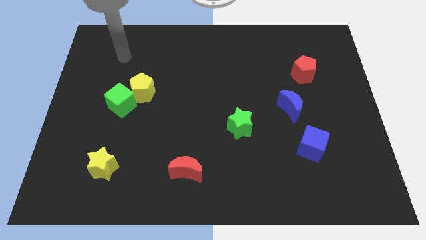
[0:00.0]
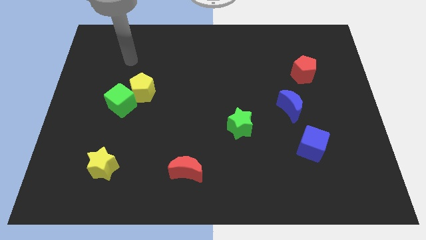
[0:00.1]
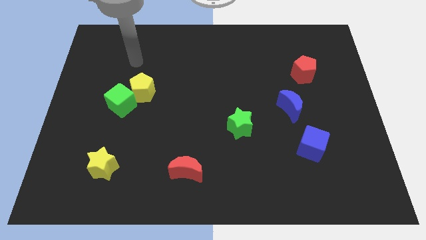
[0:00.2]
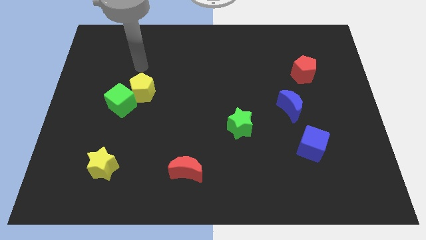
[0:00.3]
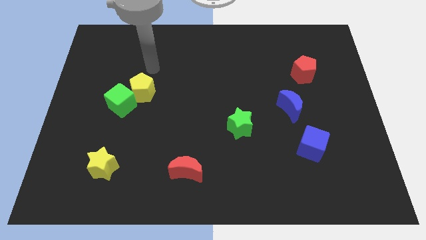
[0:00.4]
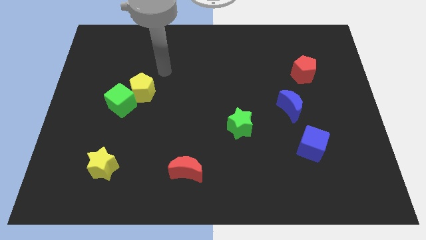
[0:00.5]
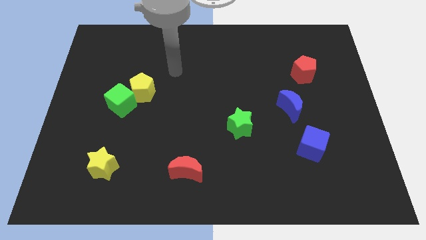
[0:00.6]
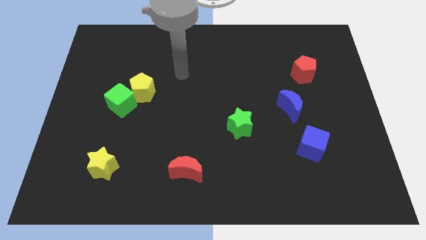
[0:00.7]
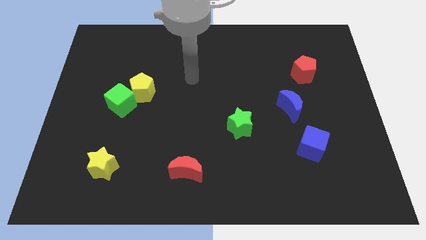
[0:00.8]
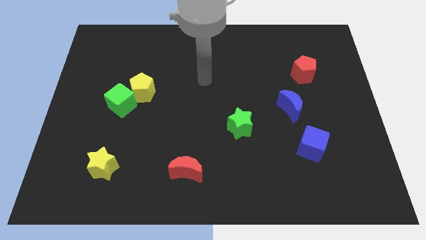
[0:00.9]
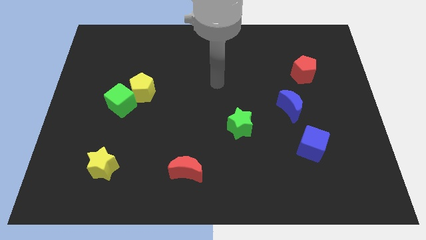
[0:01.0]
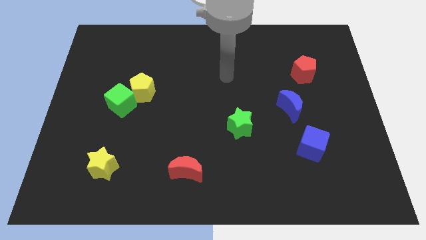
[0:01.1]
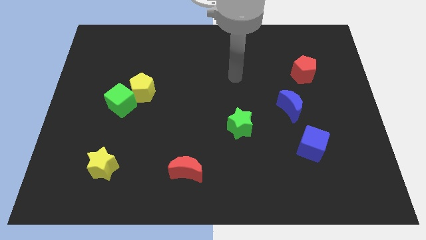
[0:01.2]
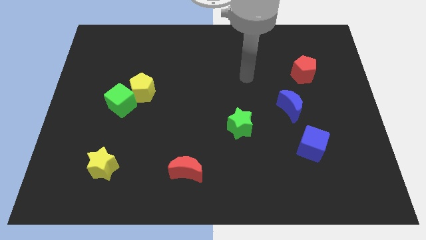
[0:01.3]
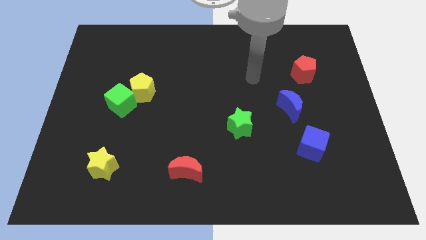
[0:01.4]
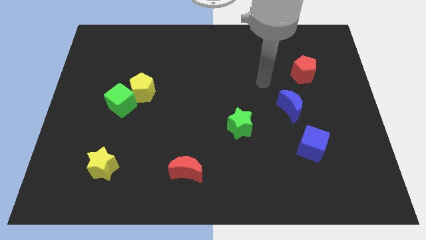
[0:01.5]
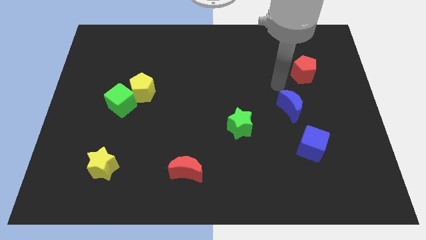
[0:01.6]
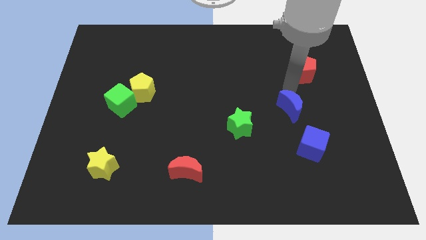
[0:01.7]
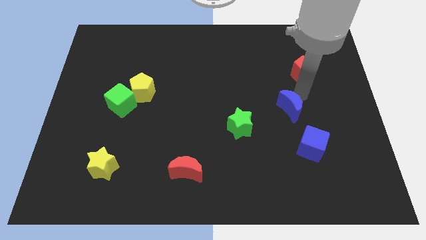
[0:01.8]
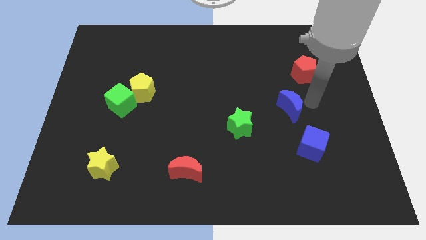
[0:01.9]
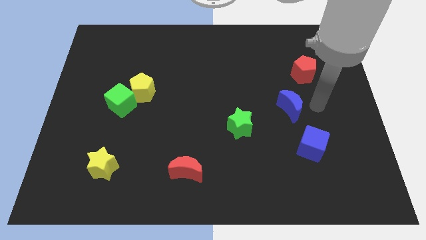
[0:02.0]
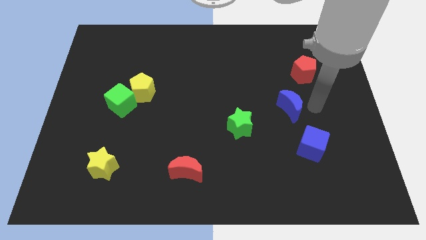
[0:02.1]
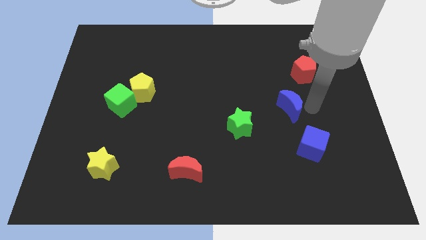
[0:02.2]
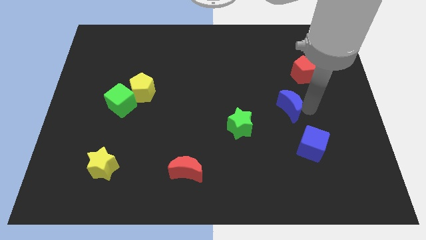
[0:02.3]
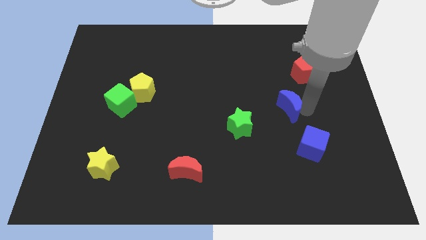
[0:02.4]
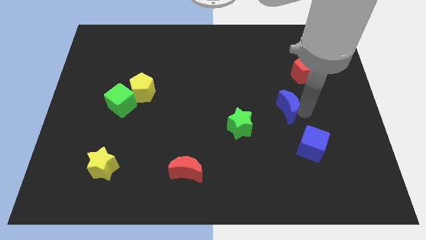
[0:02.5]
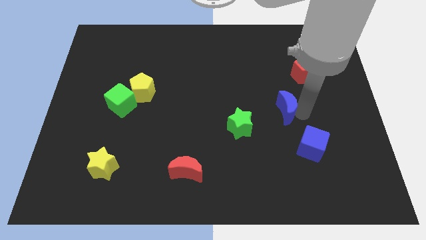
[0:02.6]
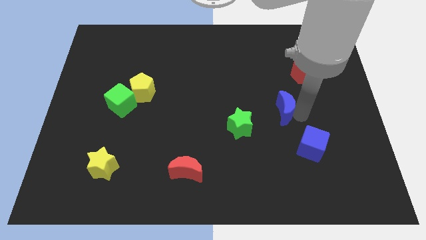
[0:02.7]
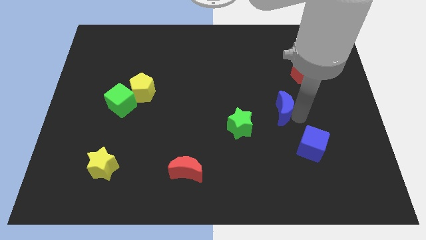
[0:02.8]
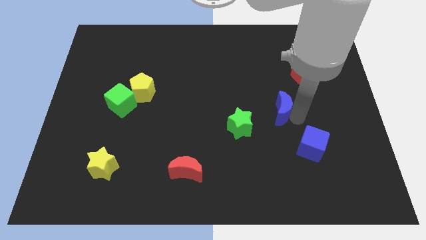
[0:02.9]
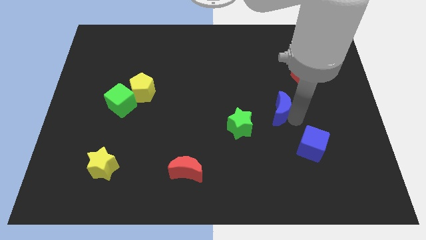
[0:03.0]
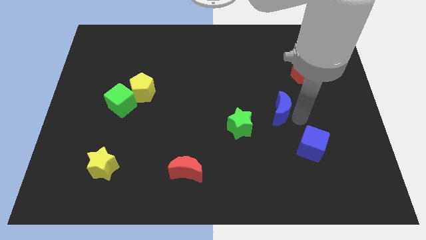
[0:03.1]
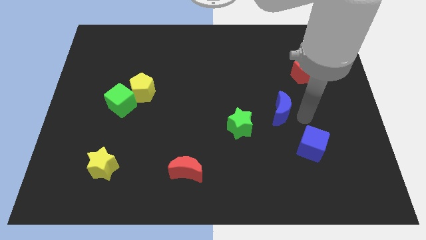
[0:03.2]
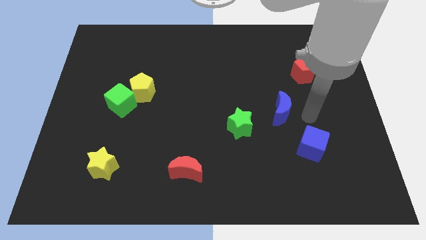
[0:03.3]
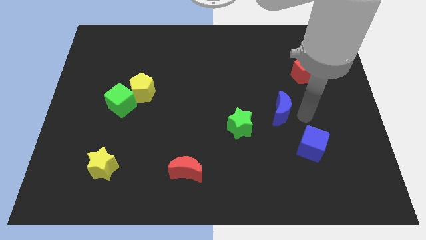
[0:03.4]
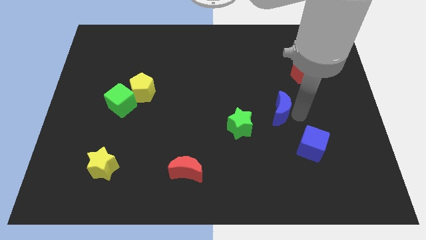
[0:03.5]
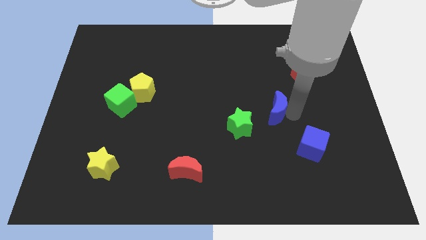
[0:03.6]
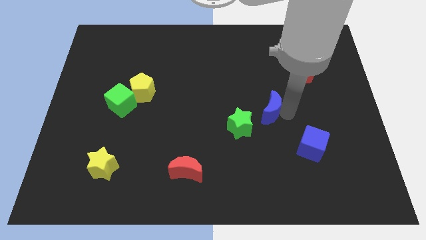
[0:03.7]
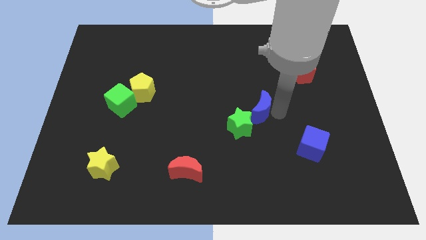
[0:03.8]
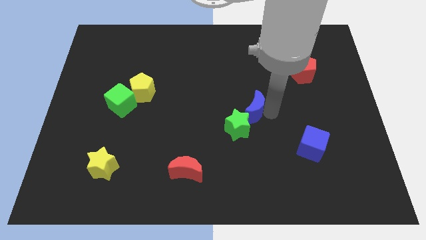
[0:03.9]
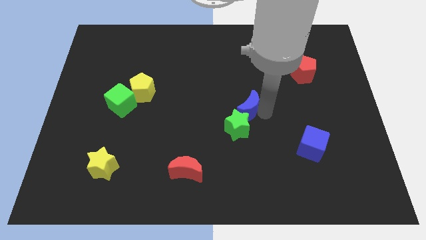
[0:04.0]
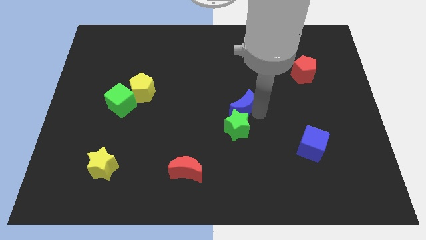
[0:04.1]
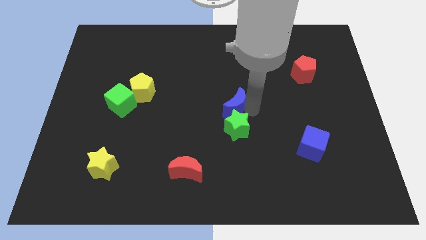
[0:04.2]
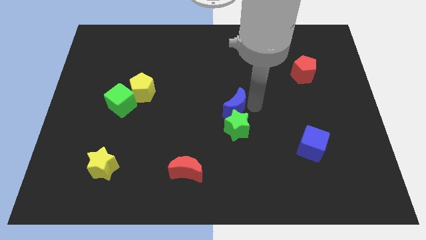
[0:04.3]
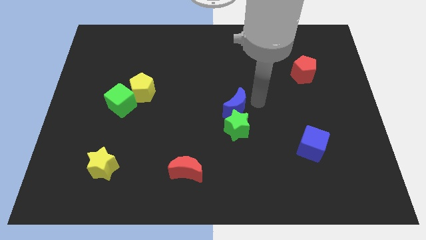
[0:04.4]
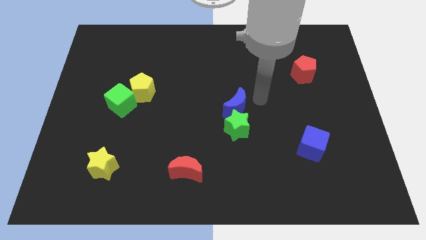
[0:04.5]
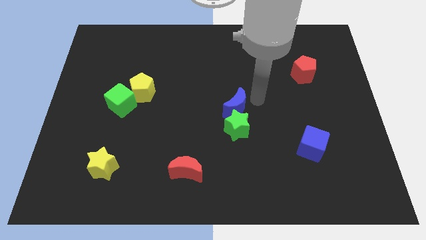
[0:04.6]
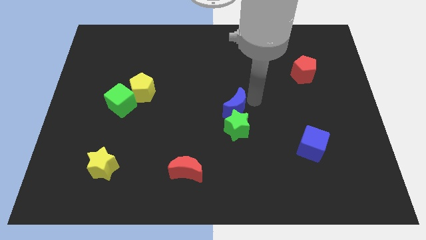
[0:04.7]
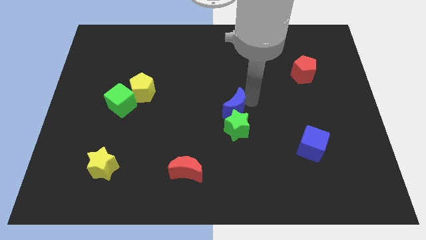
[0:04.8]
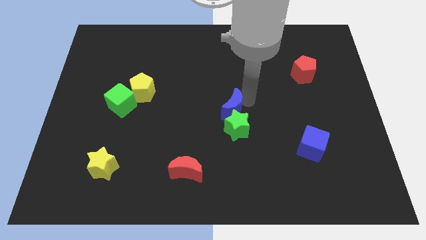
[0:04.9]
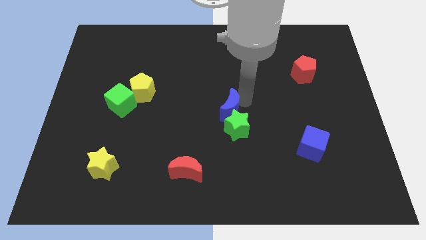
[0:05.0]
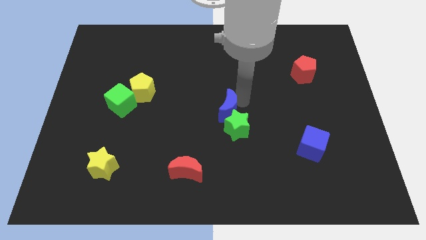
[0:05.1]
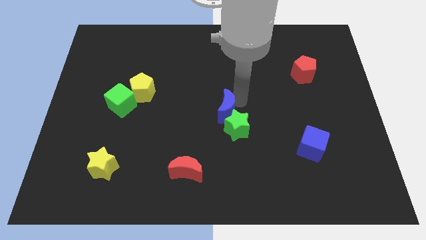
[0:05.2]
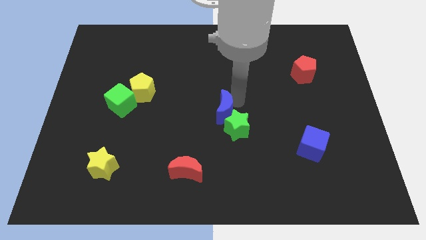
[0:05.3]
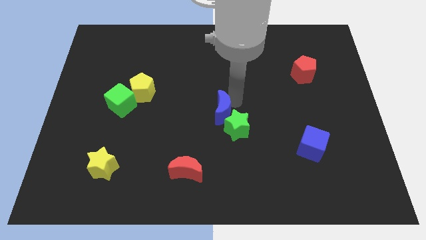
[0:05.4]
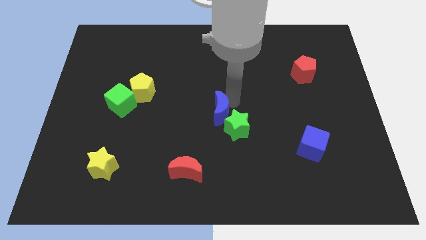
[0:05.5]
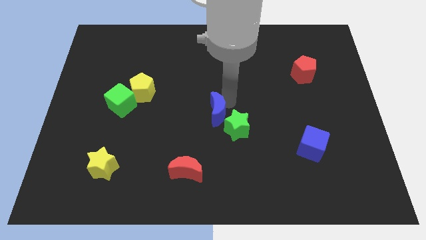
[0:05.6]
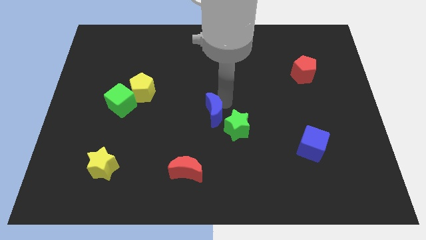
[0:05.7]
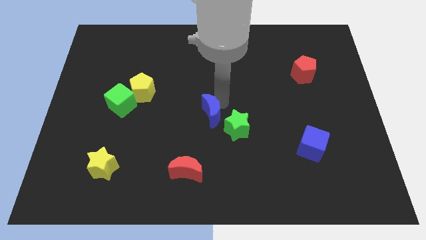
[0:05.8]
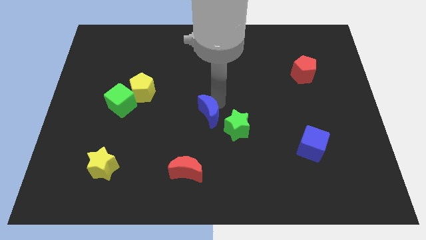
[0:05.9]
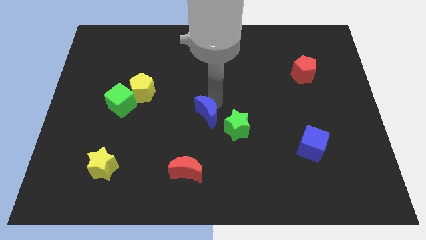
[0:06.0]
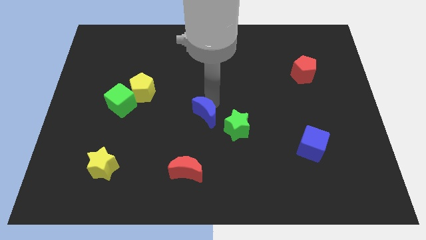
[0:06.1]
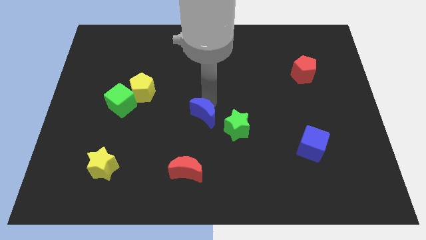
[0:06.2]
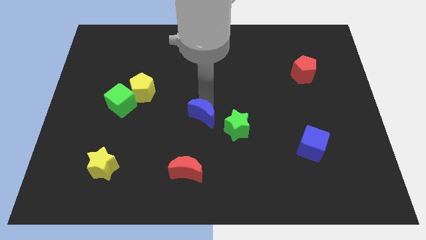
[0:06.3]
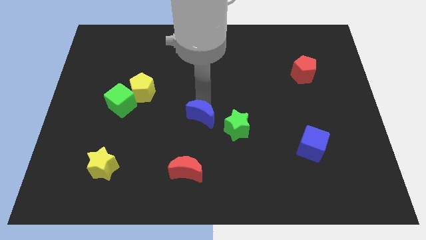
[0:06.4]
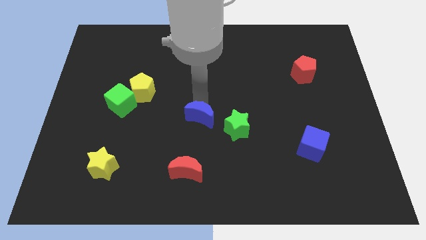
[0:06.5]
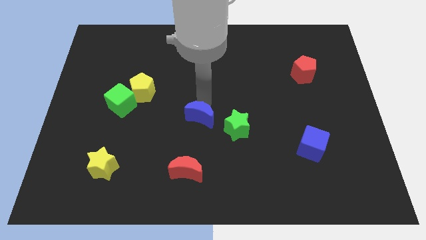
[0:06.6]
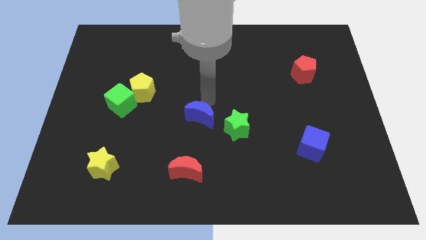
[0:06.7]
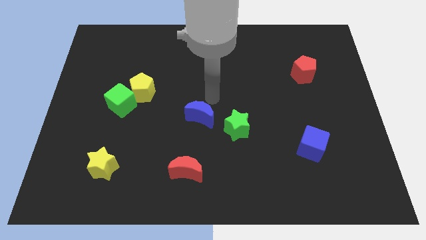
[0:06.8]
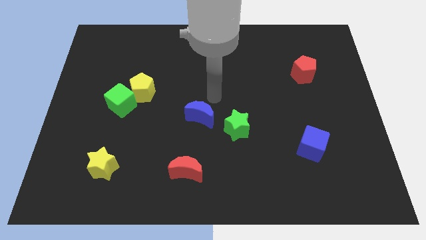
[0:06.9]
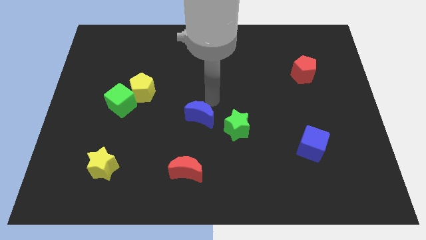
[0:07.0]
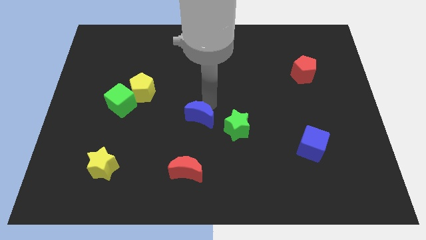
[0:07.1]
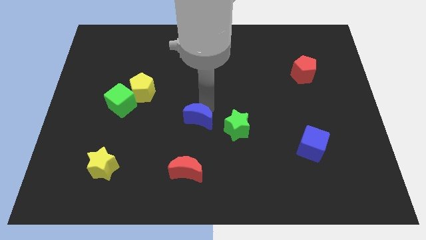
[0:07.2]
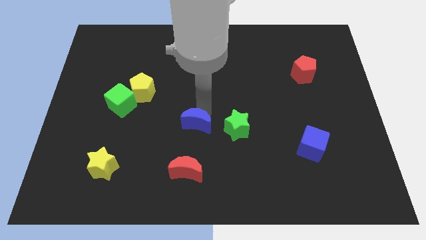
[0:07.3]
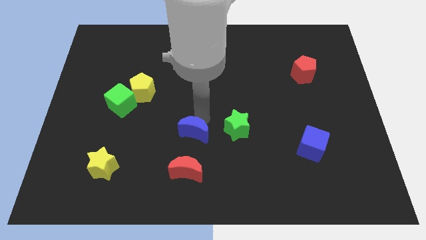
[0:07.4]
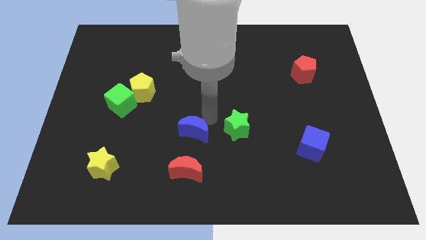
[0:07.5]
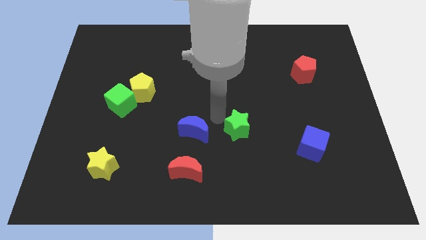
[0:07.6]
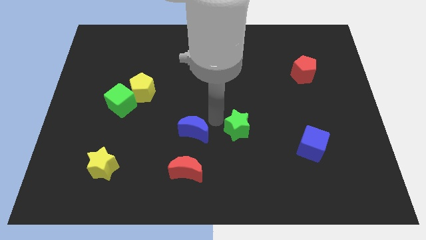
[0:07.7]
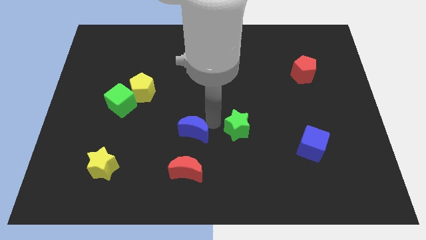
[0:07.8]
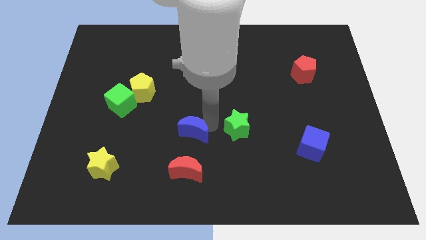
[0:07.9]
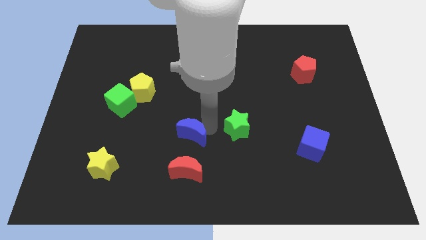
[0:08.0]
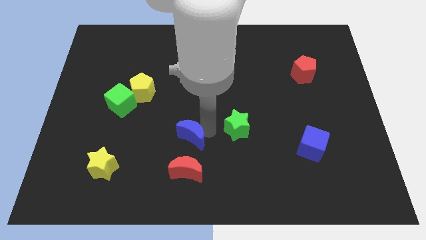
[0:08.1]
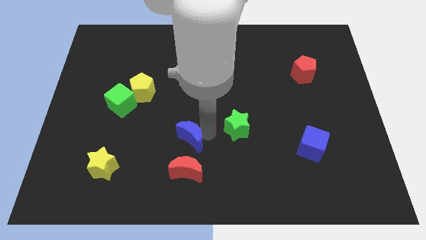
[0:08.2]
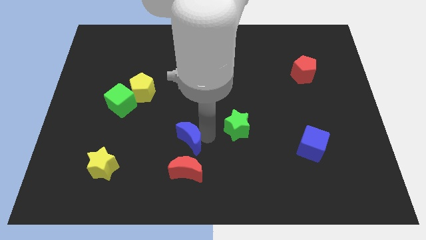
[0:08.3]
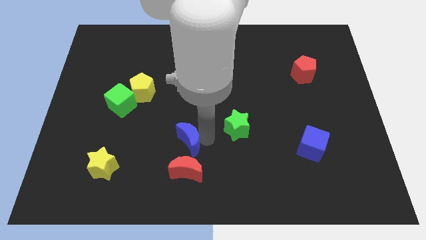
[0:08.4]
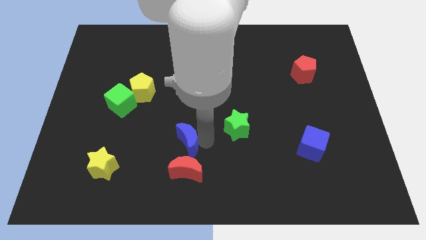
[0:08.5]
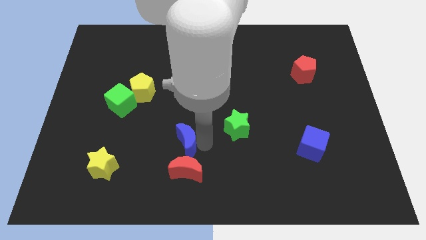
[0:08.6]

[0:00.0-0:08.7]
move the blue moon diagonally up and to the left of the red moon
